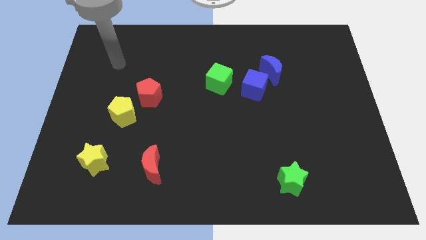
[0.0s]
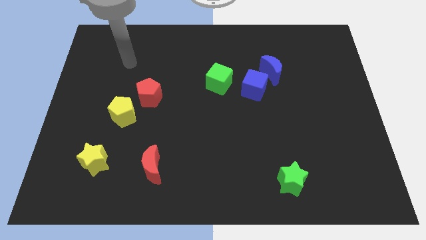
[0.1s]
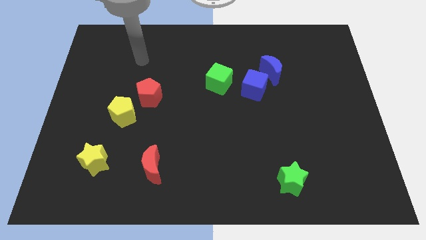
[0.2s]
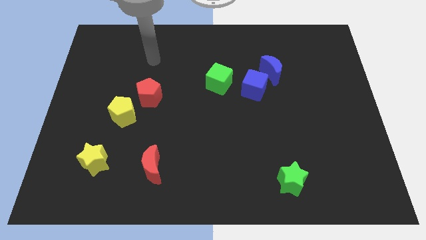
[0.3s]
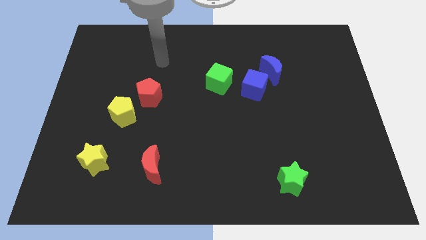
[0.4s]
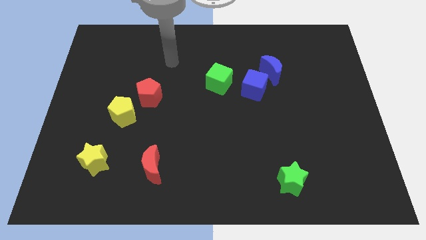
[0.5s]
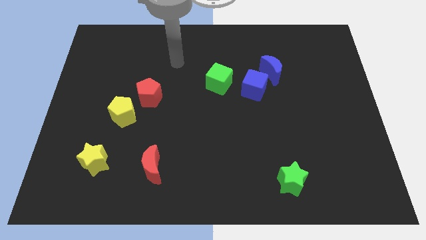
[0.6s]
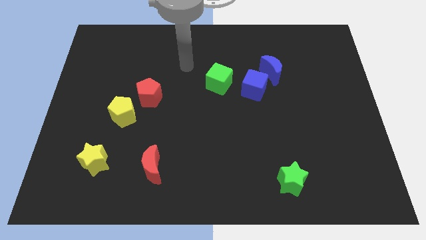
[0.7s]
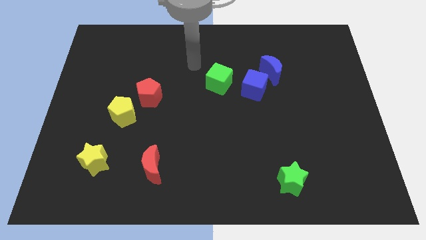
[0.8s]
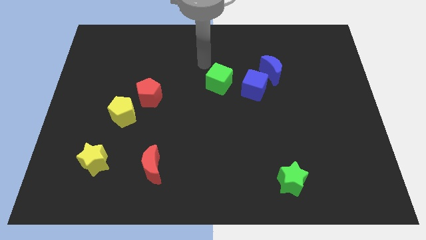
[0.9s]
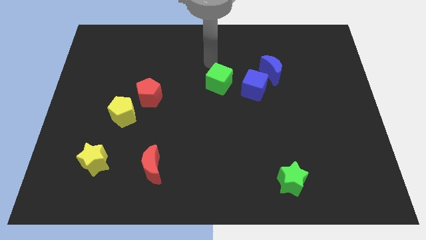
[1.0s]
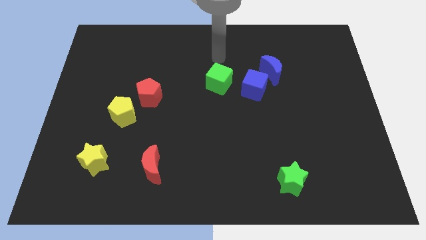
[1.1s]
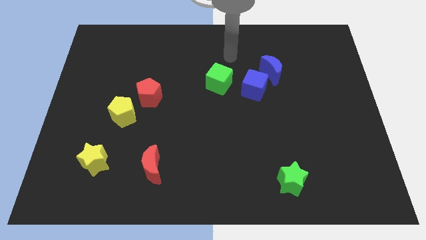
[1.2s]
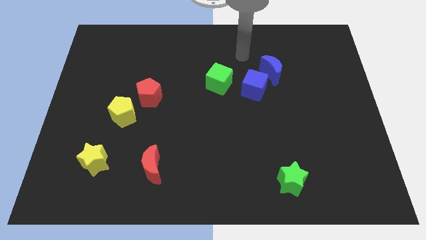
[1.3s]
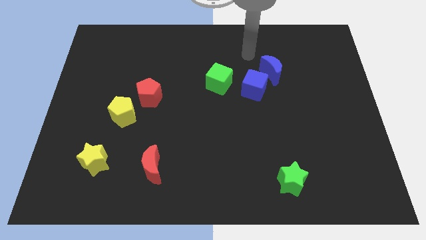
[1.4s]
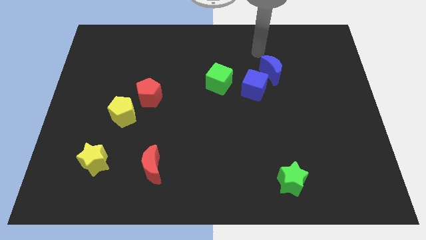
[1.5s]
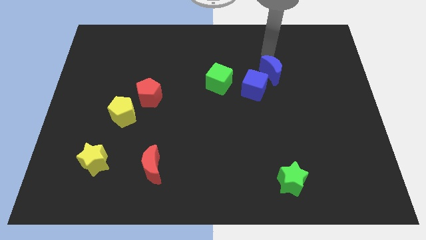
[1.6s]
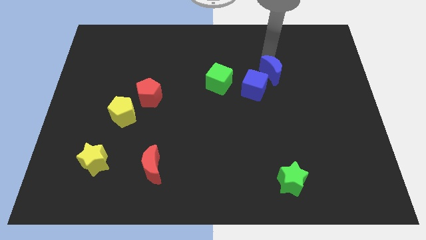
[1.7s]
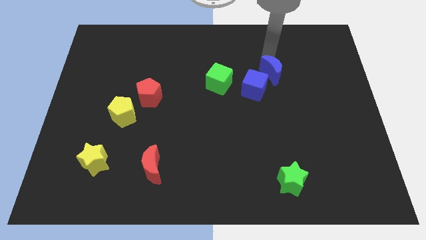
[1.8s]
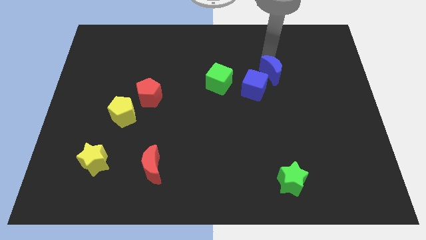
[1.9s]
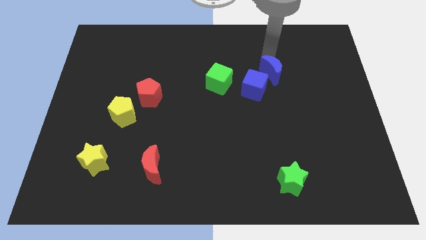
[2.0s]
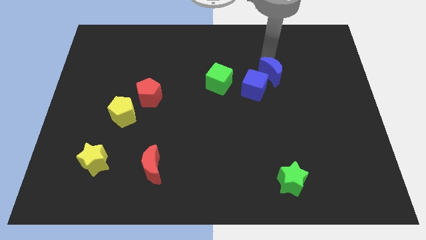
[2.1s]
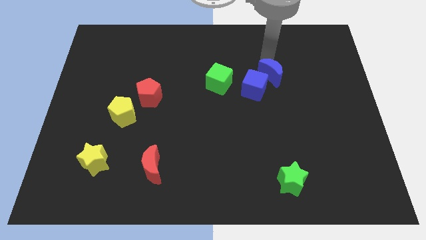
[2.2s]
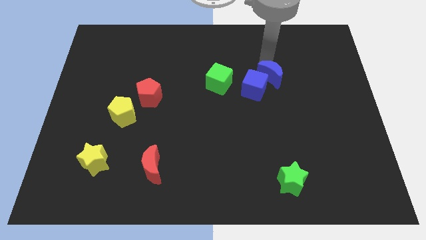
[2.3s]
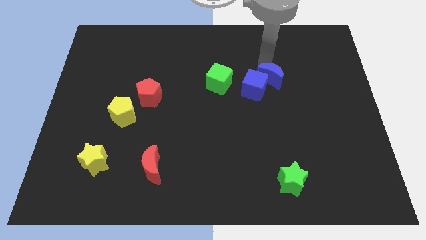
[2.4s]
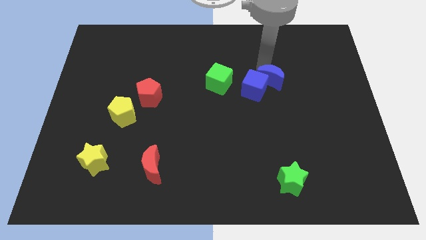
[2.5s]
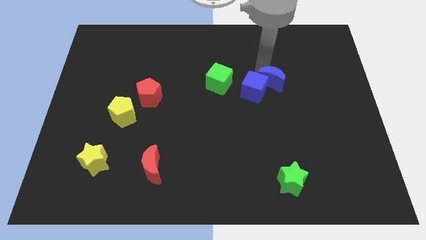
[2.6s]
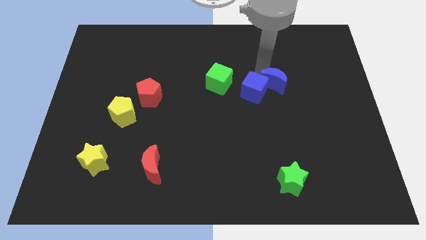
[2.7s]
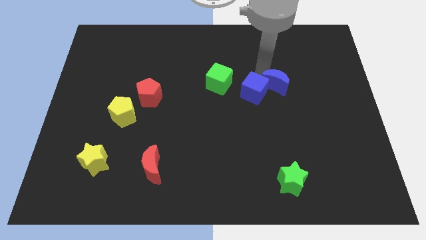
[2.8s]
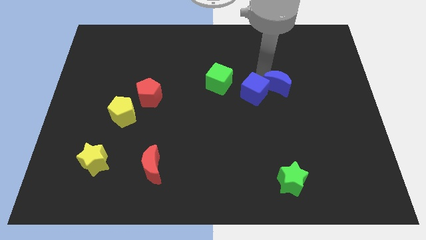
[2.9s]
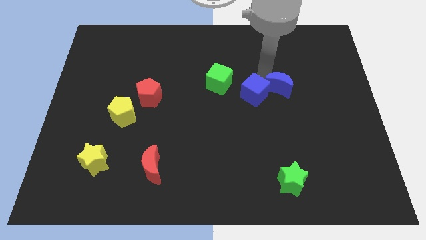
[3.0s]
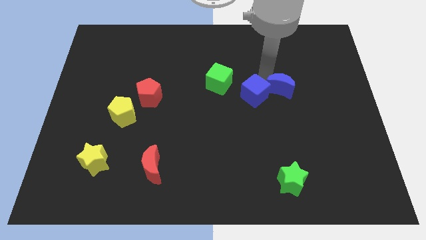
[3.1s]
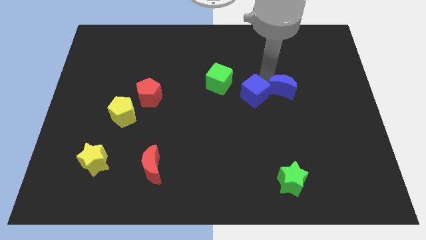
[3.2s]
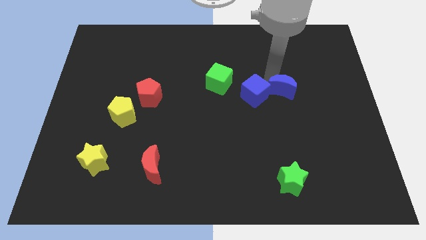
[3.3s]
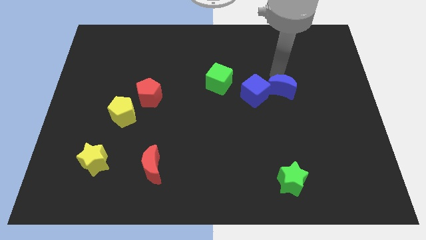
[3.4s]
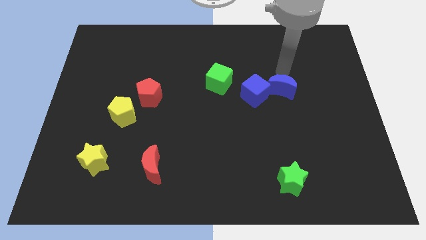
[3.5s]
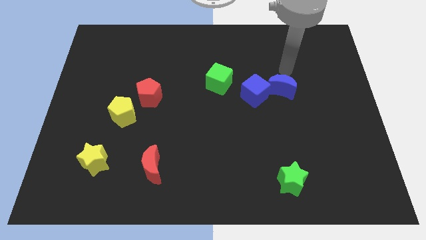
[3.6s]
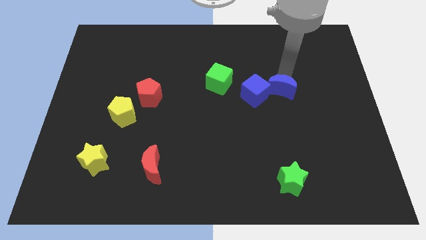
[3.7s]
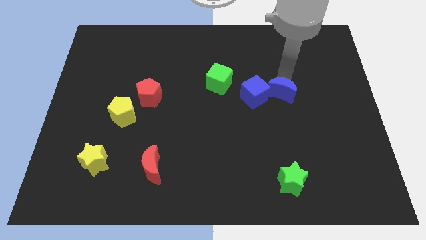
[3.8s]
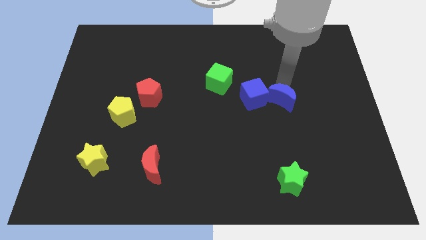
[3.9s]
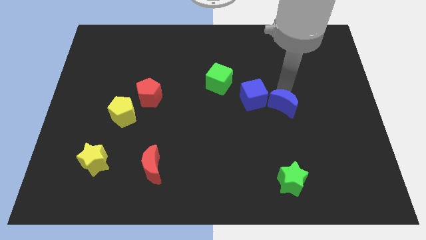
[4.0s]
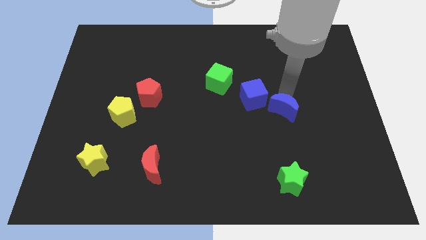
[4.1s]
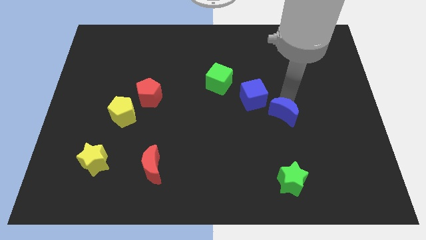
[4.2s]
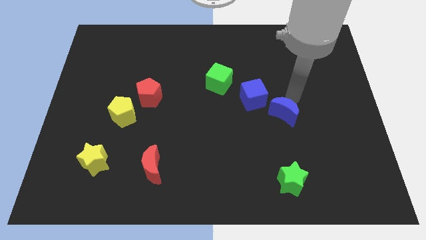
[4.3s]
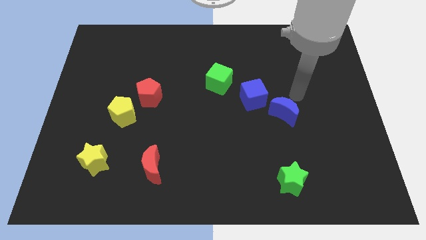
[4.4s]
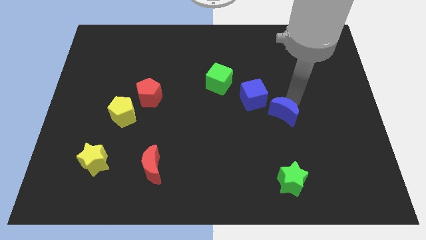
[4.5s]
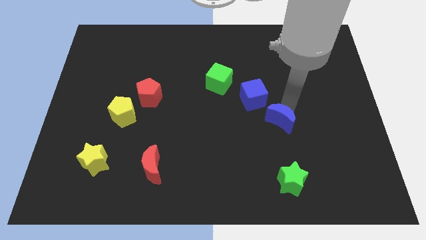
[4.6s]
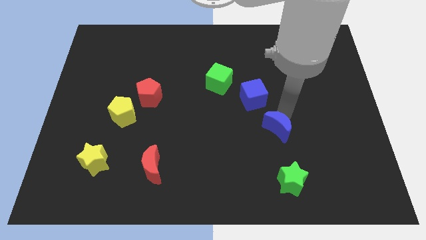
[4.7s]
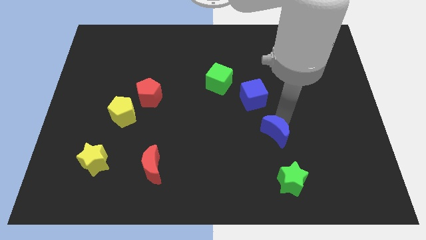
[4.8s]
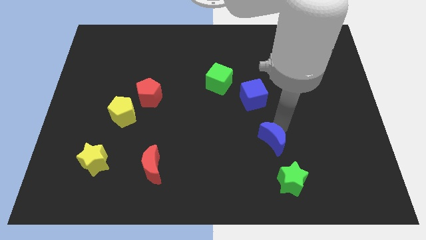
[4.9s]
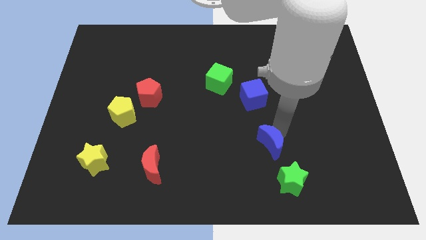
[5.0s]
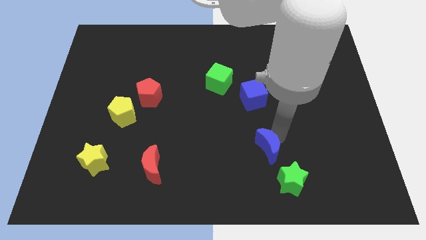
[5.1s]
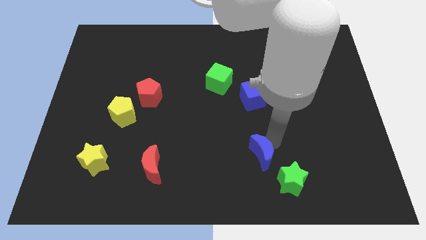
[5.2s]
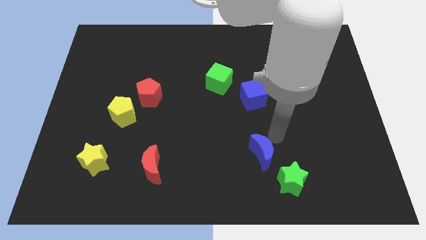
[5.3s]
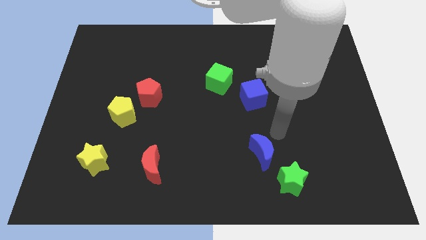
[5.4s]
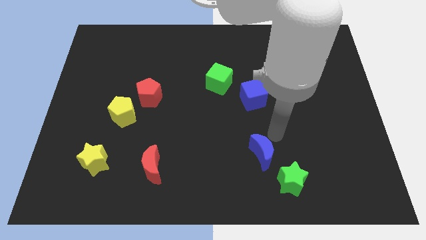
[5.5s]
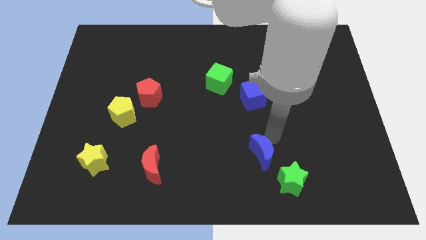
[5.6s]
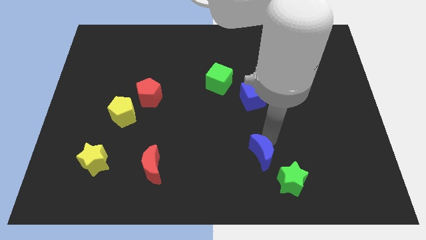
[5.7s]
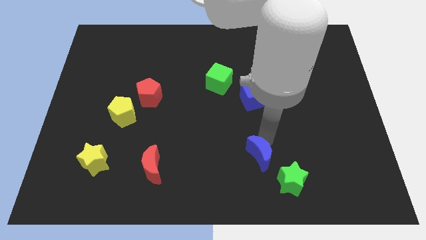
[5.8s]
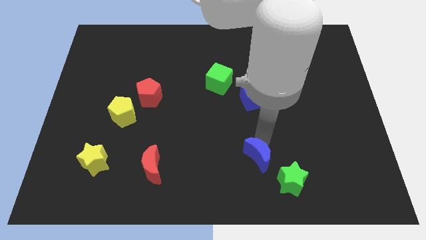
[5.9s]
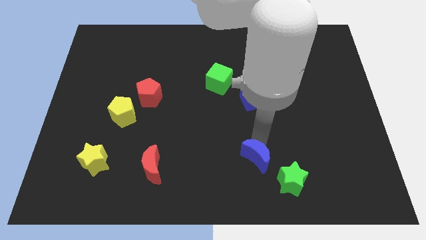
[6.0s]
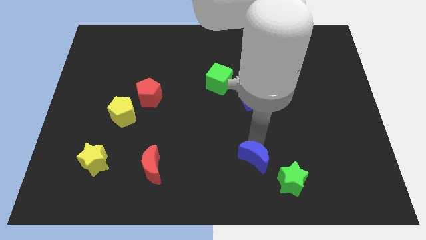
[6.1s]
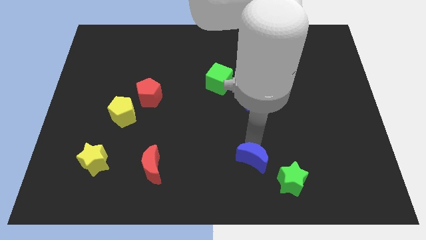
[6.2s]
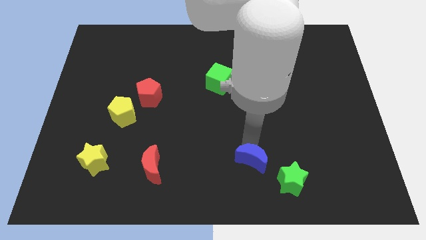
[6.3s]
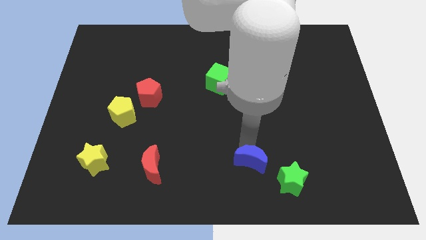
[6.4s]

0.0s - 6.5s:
slide the blue moon just left of the green star

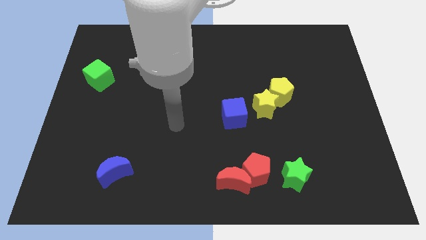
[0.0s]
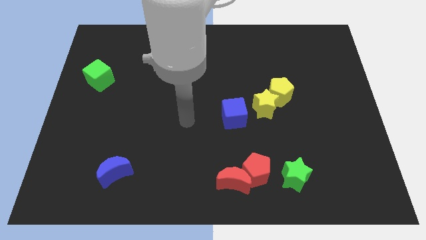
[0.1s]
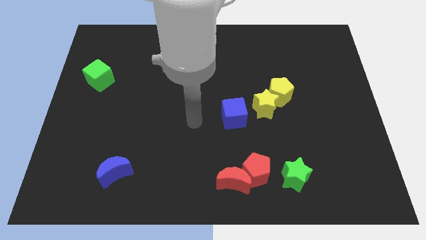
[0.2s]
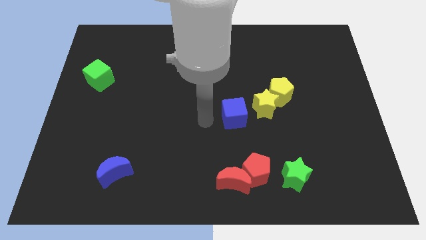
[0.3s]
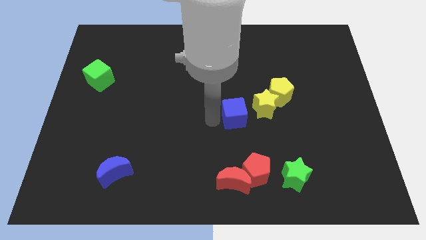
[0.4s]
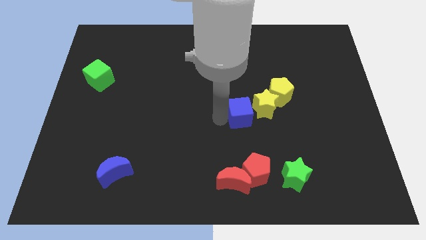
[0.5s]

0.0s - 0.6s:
put the blue cube to the bottom left side of the yellow pentagon
